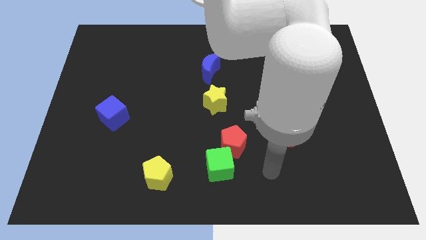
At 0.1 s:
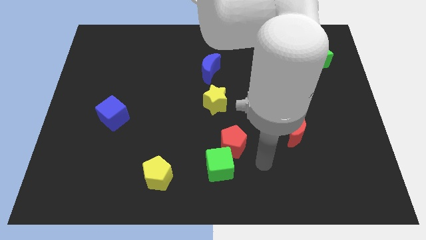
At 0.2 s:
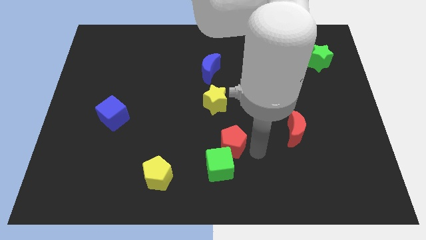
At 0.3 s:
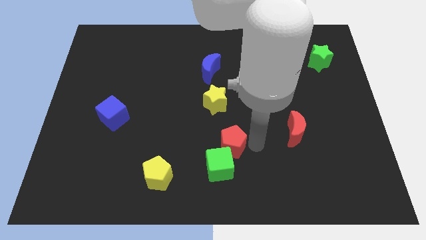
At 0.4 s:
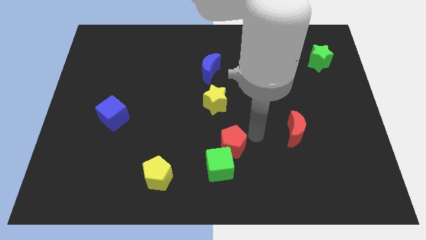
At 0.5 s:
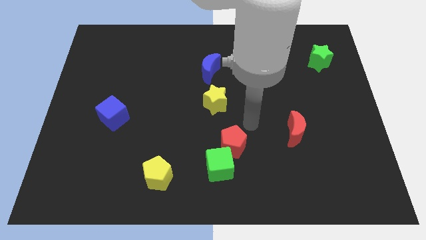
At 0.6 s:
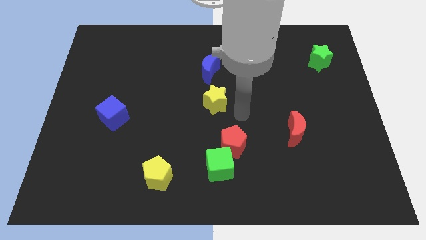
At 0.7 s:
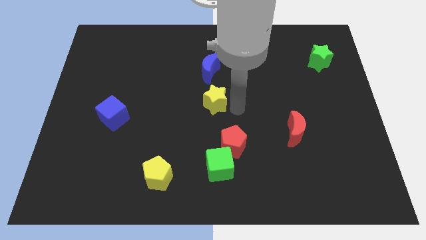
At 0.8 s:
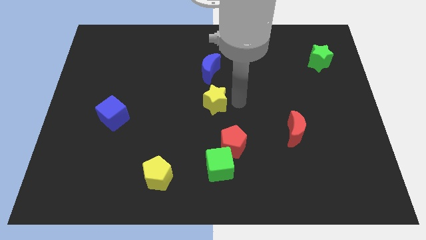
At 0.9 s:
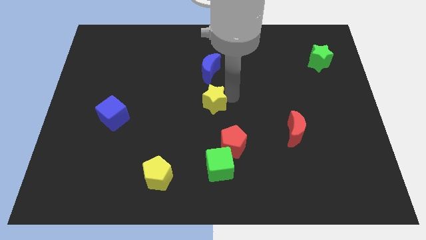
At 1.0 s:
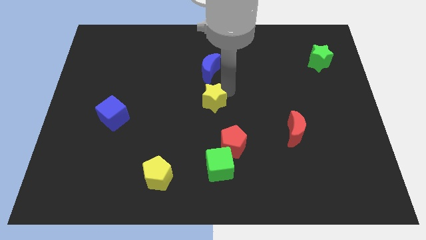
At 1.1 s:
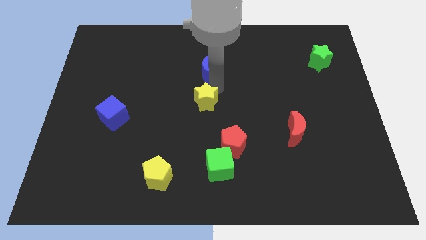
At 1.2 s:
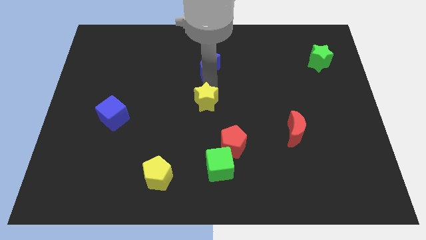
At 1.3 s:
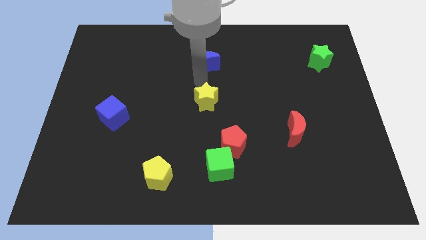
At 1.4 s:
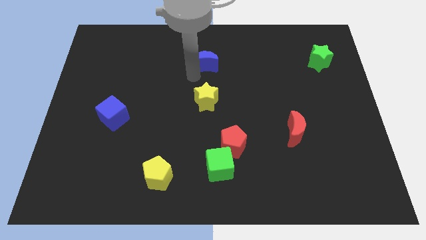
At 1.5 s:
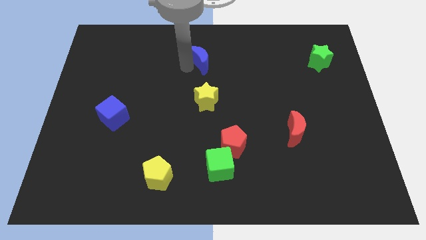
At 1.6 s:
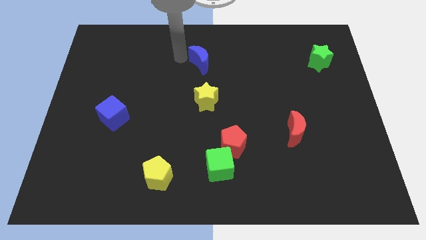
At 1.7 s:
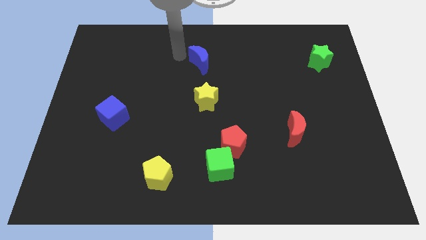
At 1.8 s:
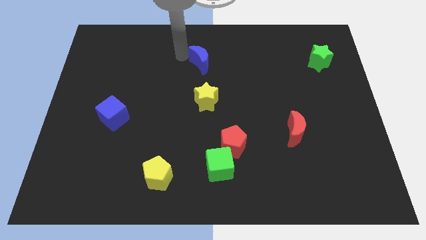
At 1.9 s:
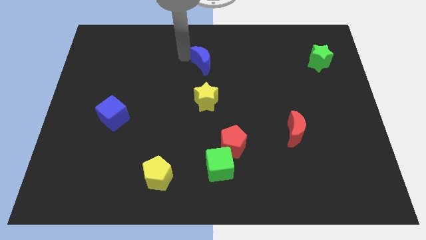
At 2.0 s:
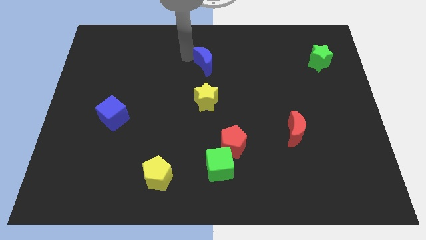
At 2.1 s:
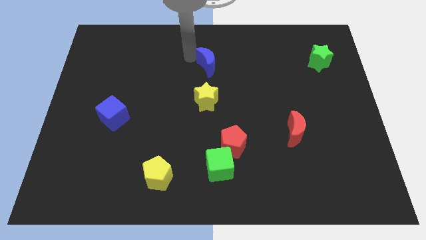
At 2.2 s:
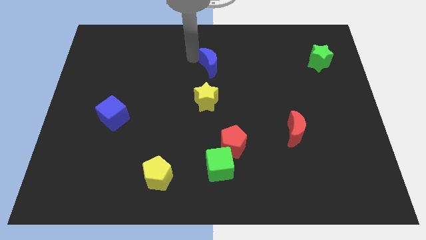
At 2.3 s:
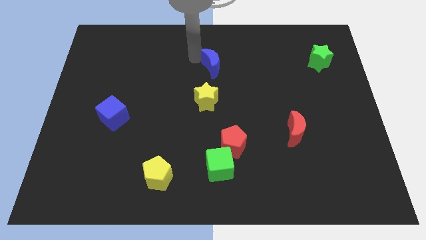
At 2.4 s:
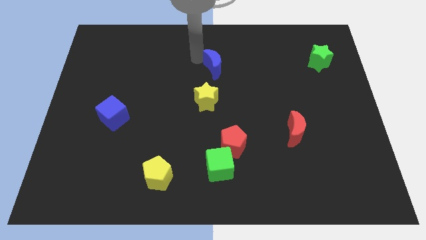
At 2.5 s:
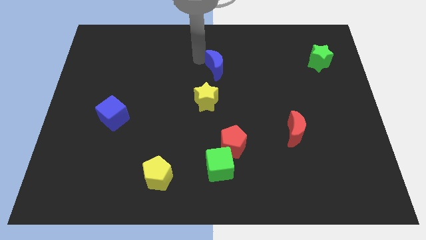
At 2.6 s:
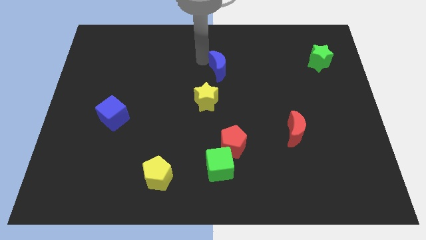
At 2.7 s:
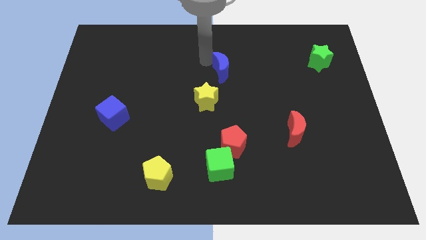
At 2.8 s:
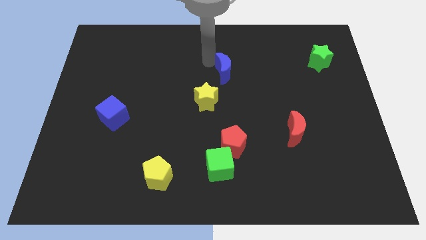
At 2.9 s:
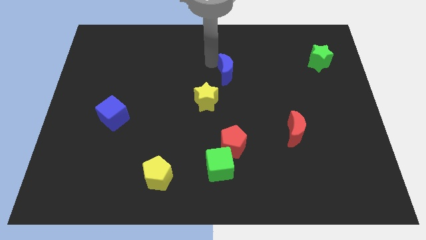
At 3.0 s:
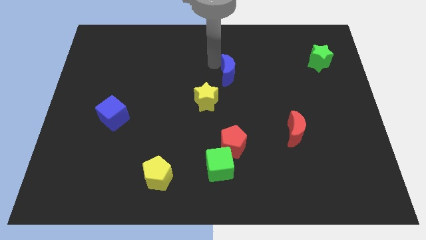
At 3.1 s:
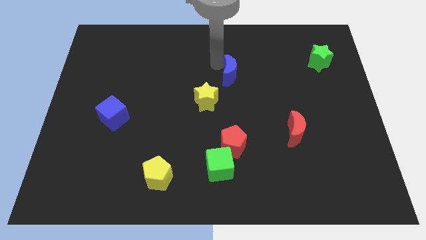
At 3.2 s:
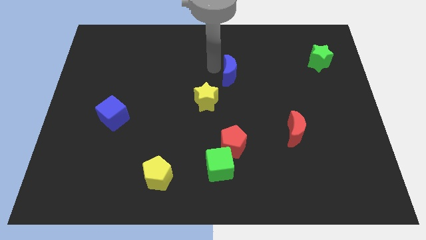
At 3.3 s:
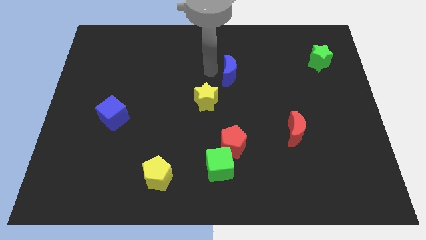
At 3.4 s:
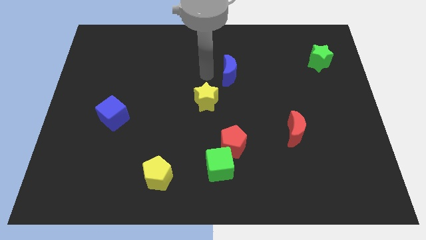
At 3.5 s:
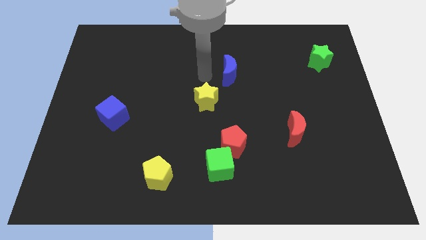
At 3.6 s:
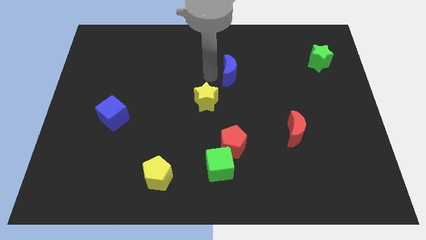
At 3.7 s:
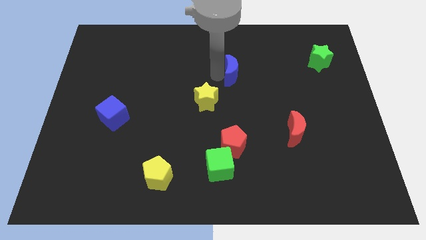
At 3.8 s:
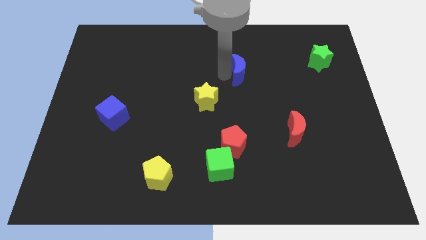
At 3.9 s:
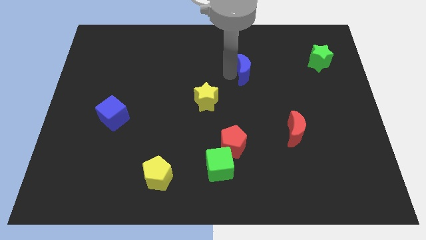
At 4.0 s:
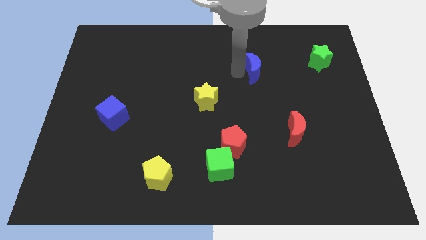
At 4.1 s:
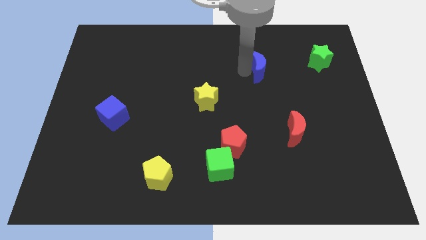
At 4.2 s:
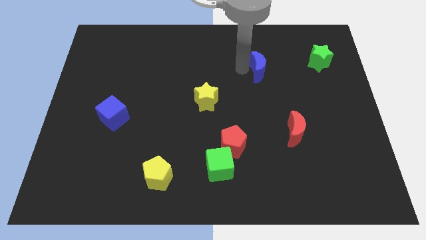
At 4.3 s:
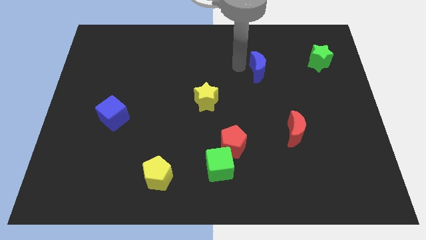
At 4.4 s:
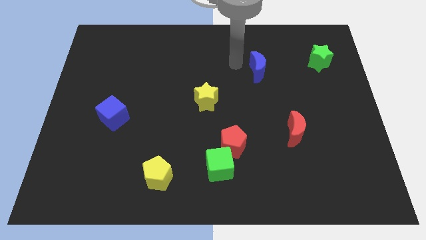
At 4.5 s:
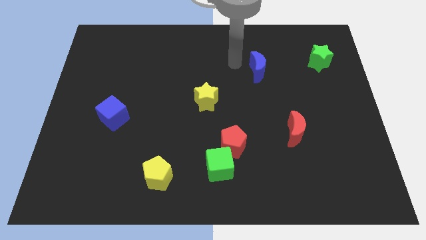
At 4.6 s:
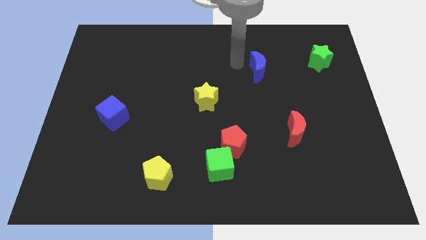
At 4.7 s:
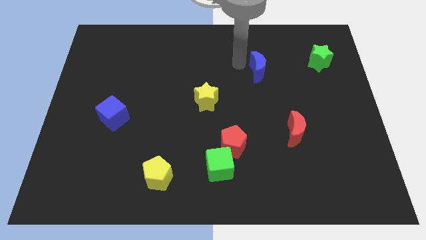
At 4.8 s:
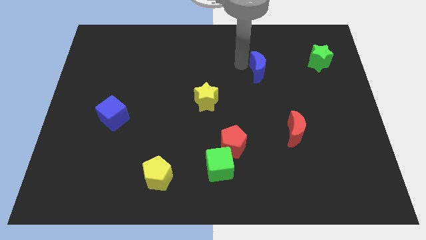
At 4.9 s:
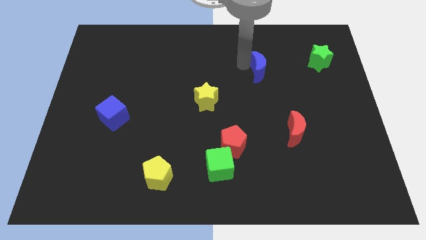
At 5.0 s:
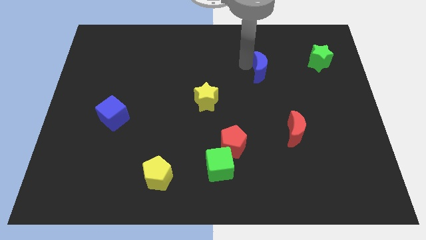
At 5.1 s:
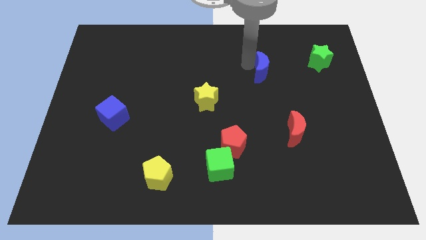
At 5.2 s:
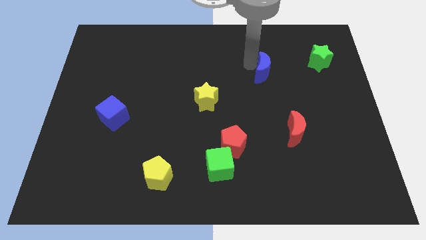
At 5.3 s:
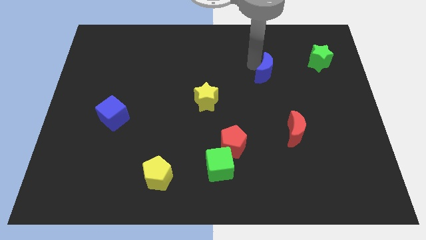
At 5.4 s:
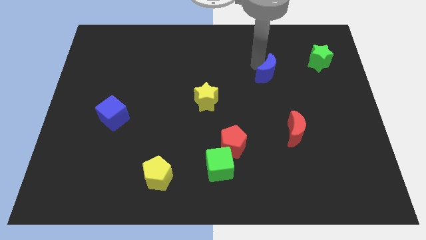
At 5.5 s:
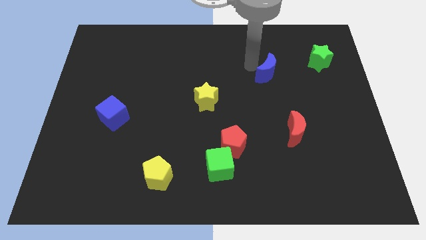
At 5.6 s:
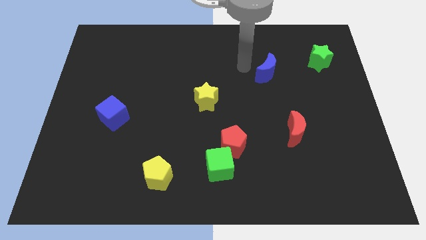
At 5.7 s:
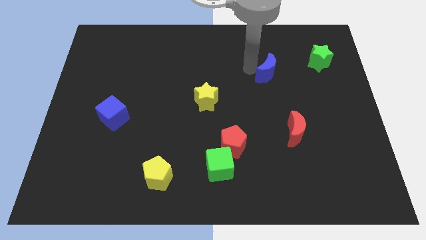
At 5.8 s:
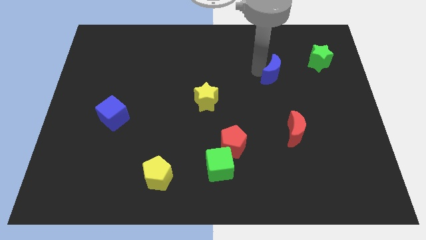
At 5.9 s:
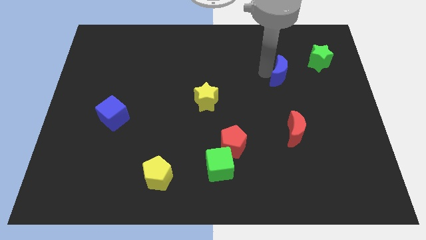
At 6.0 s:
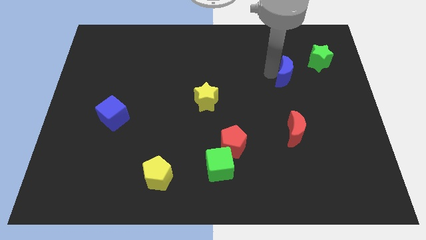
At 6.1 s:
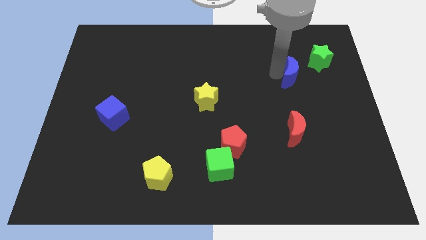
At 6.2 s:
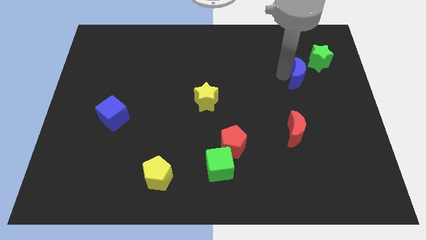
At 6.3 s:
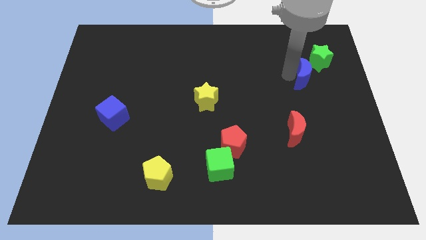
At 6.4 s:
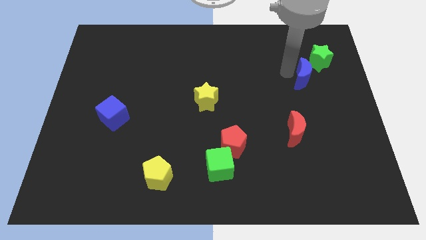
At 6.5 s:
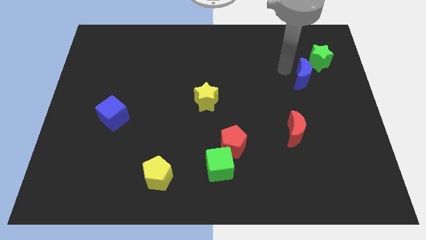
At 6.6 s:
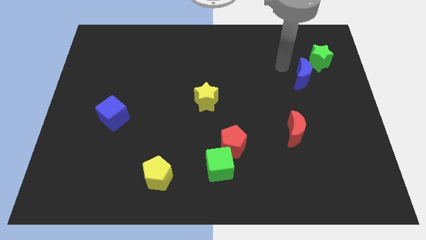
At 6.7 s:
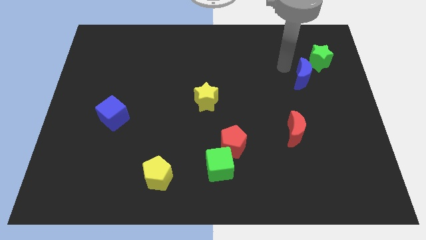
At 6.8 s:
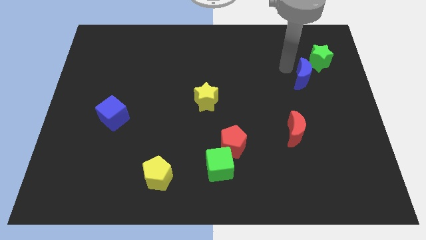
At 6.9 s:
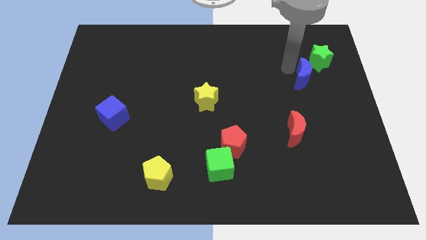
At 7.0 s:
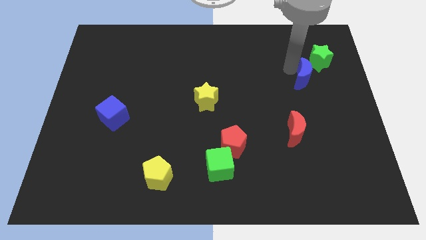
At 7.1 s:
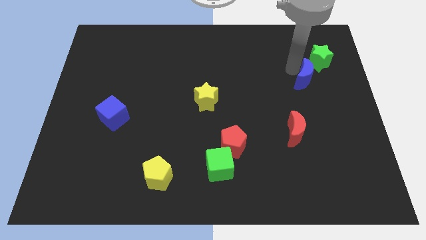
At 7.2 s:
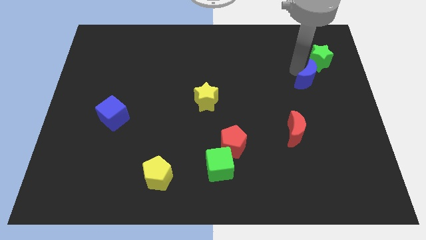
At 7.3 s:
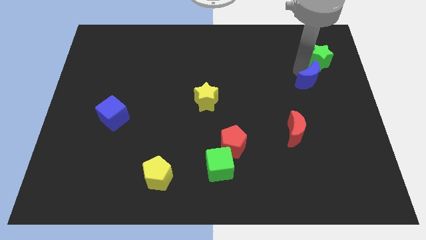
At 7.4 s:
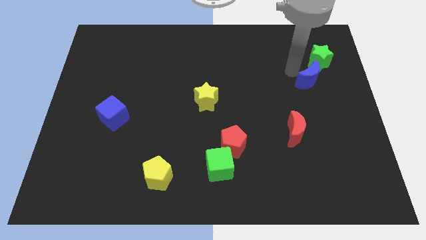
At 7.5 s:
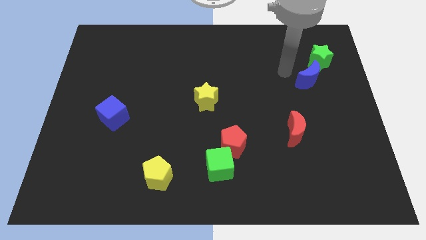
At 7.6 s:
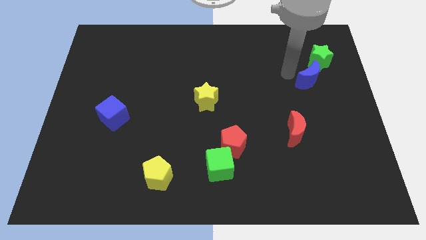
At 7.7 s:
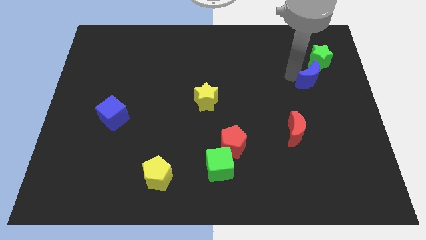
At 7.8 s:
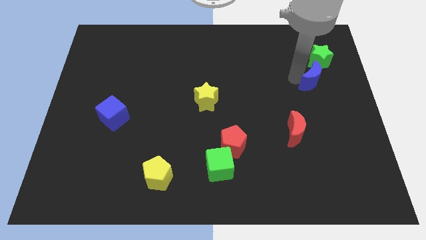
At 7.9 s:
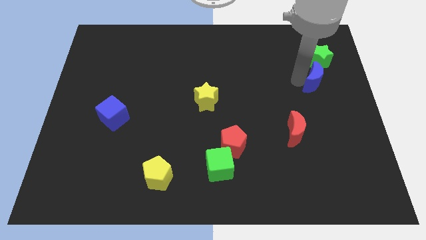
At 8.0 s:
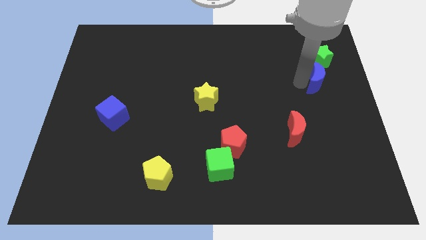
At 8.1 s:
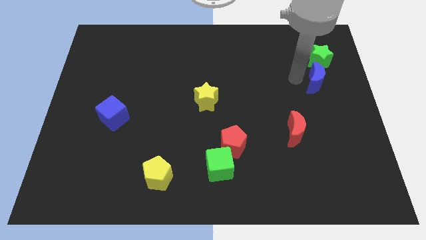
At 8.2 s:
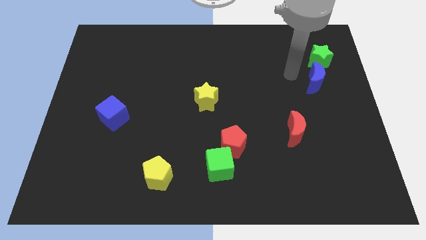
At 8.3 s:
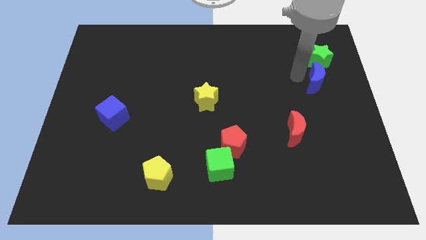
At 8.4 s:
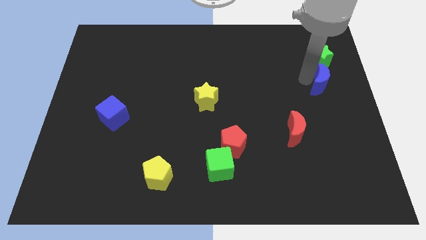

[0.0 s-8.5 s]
move the blue moon to the right side of the board
